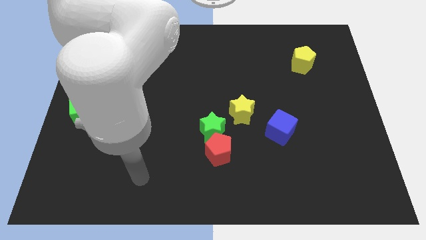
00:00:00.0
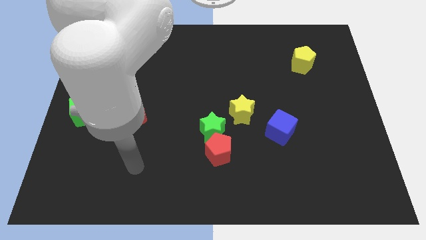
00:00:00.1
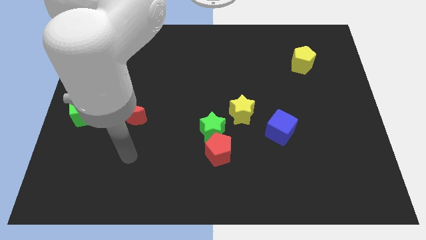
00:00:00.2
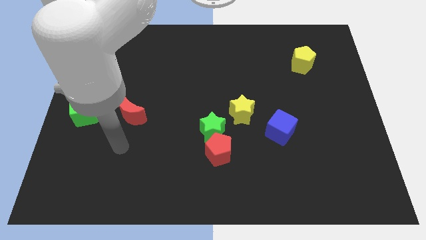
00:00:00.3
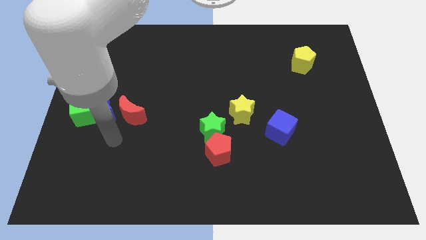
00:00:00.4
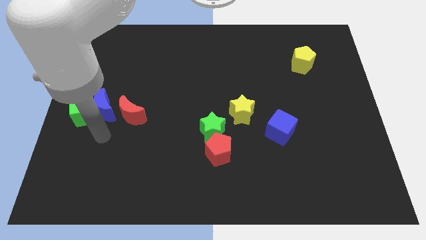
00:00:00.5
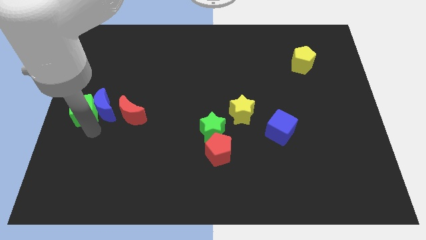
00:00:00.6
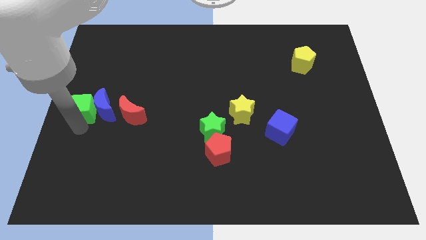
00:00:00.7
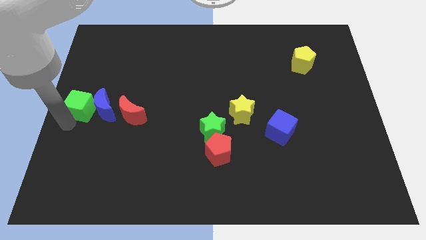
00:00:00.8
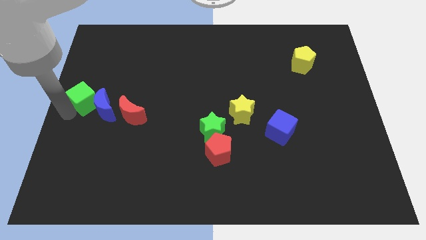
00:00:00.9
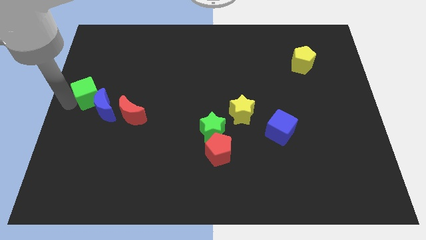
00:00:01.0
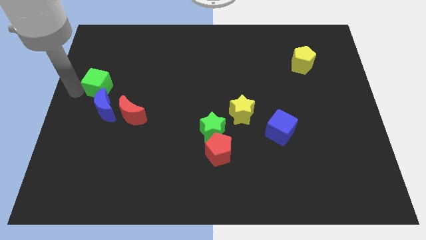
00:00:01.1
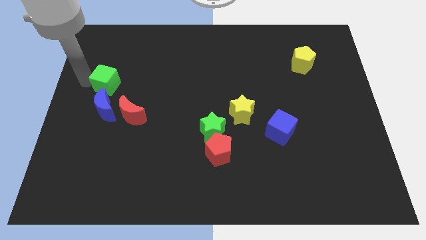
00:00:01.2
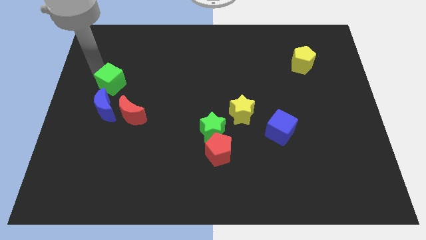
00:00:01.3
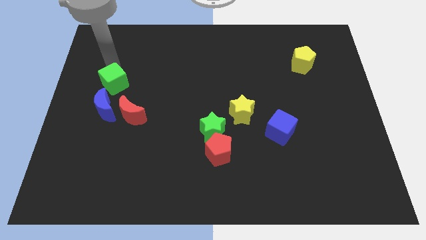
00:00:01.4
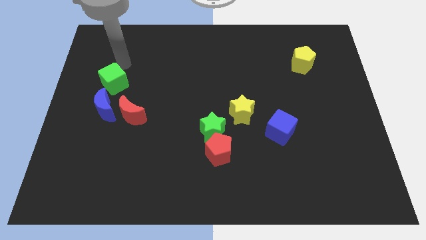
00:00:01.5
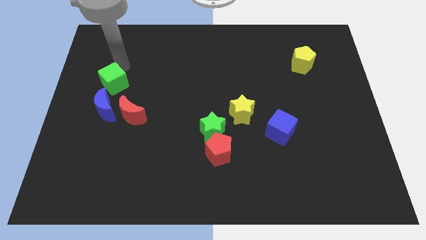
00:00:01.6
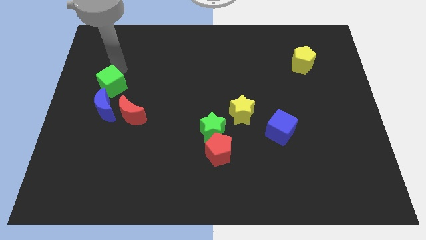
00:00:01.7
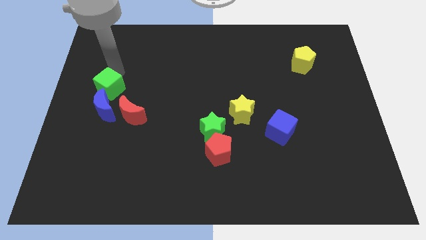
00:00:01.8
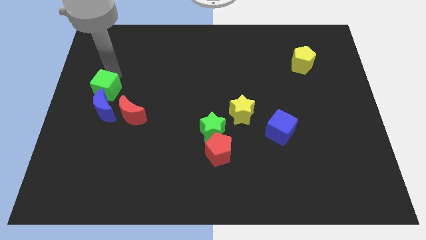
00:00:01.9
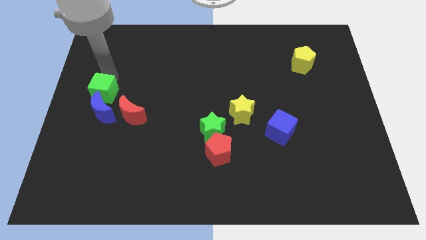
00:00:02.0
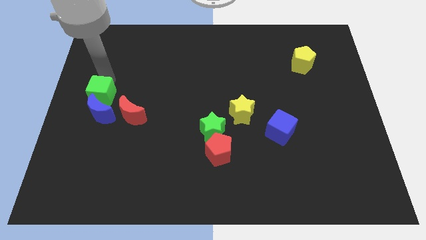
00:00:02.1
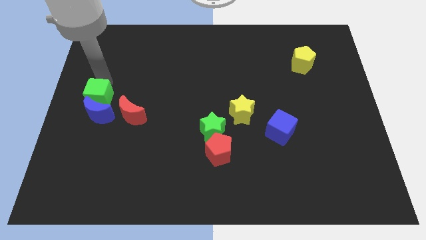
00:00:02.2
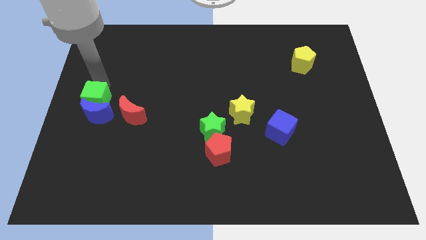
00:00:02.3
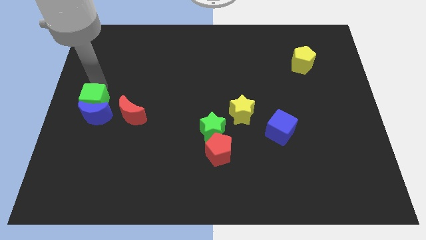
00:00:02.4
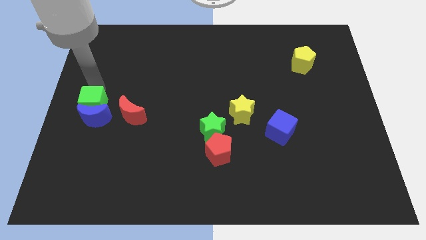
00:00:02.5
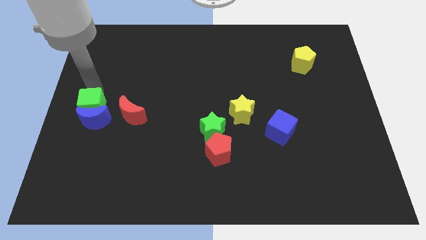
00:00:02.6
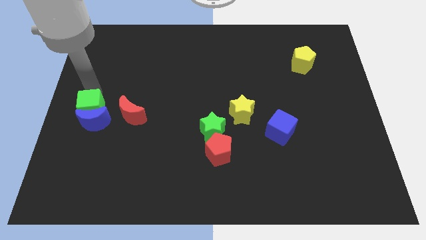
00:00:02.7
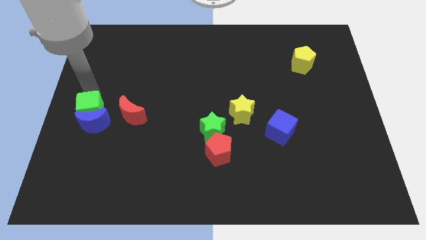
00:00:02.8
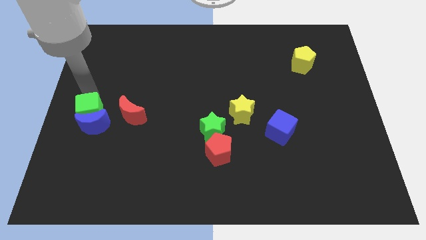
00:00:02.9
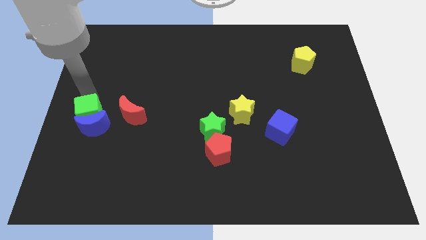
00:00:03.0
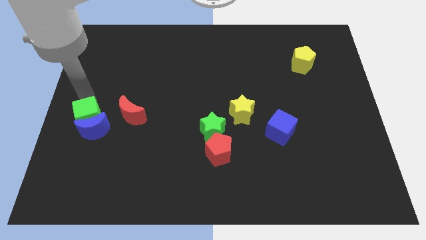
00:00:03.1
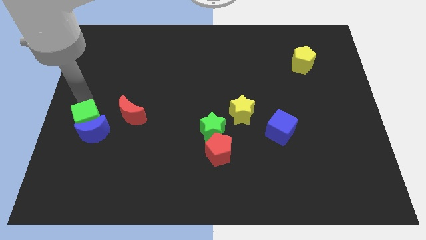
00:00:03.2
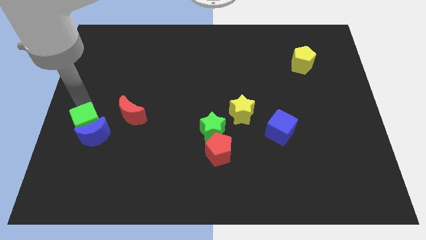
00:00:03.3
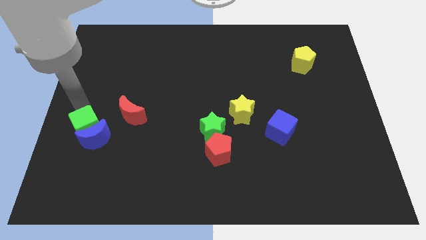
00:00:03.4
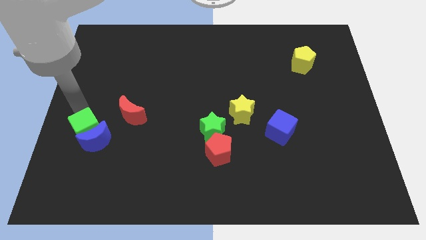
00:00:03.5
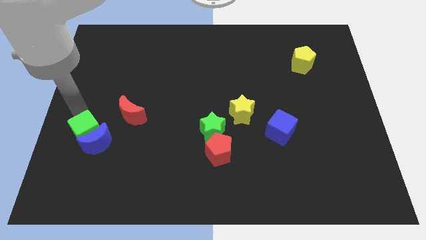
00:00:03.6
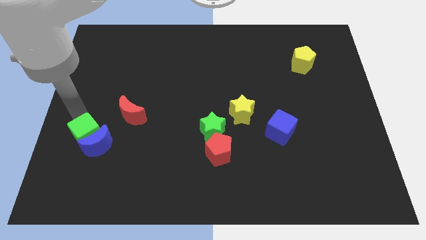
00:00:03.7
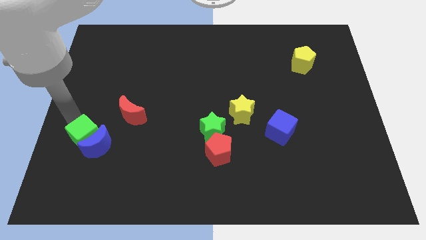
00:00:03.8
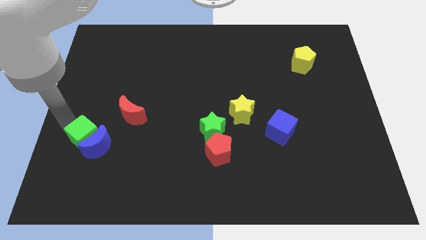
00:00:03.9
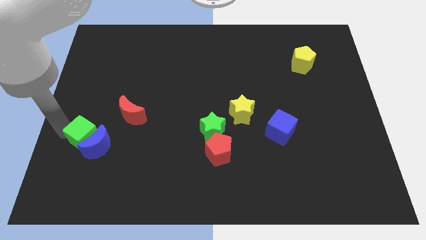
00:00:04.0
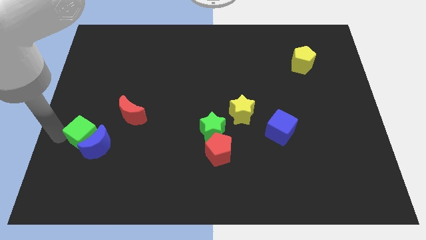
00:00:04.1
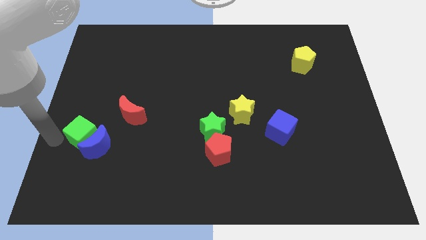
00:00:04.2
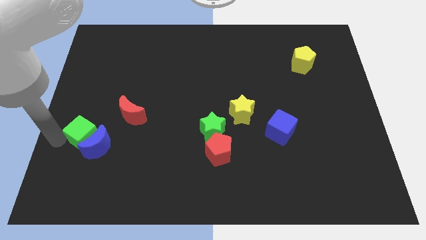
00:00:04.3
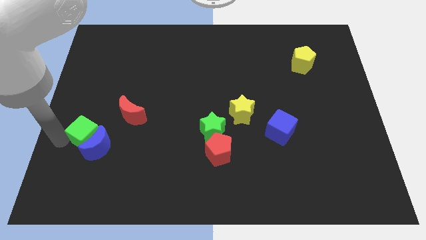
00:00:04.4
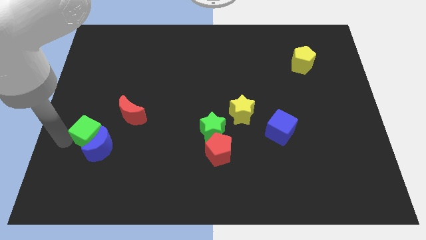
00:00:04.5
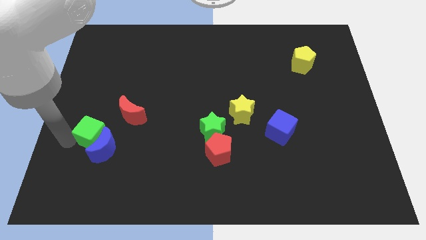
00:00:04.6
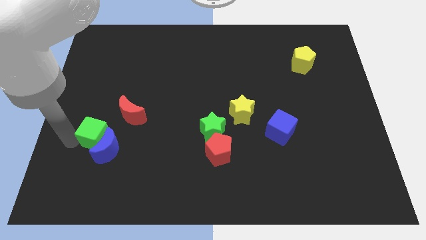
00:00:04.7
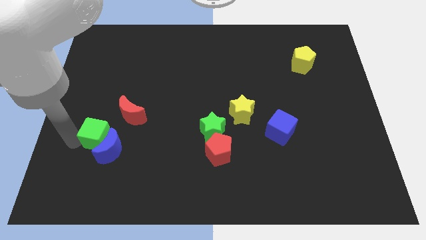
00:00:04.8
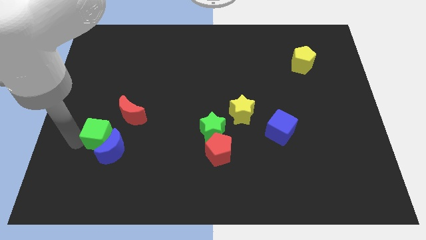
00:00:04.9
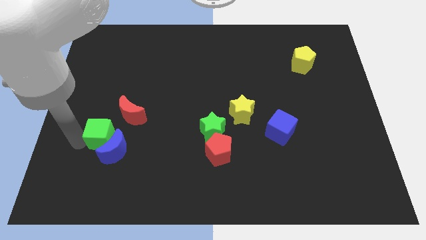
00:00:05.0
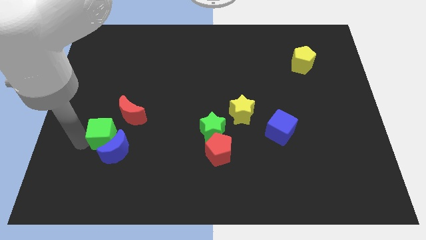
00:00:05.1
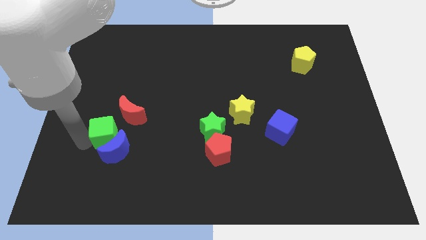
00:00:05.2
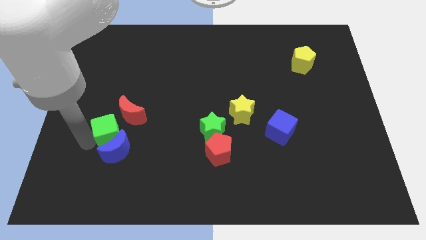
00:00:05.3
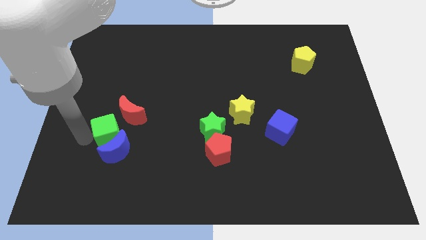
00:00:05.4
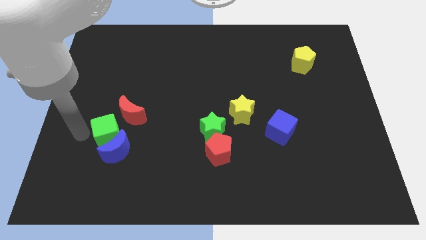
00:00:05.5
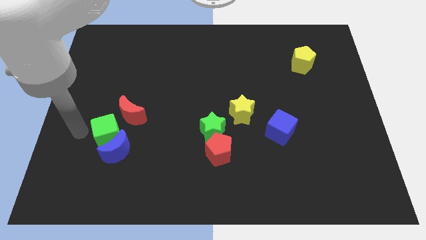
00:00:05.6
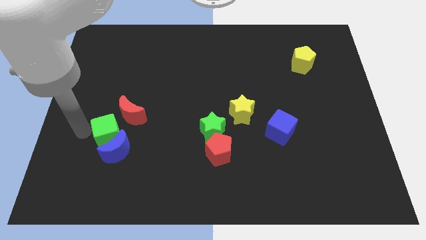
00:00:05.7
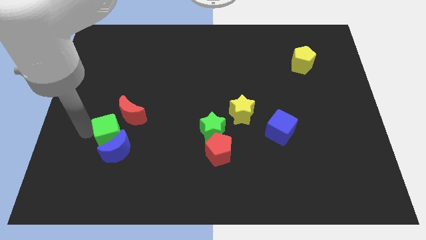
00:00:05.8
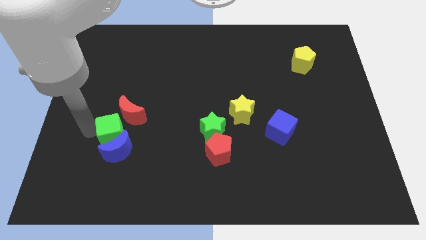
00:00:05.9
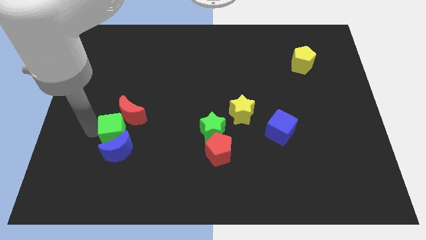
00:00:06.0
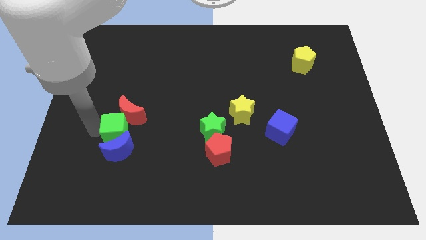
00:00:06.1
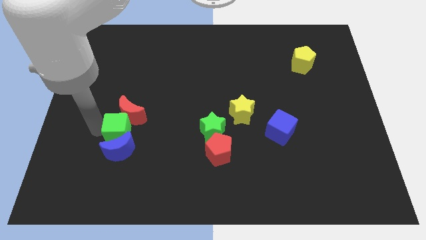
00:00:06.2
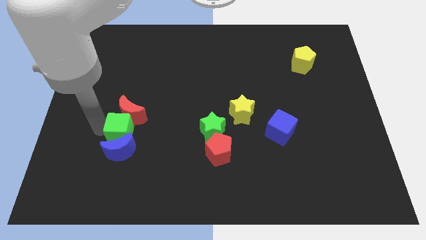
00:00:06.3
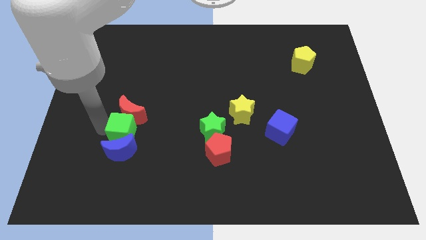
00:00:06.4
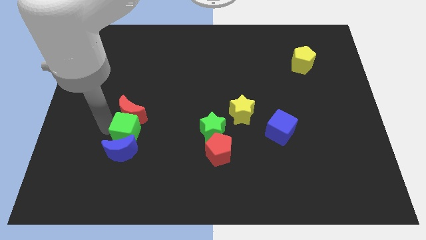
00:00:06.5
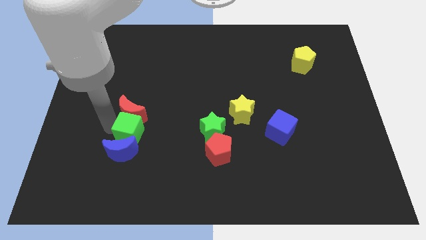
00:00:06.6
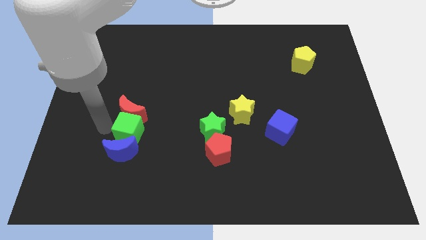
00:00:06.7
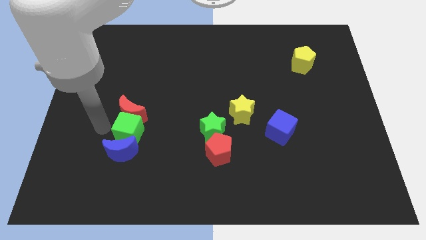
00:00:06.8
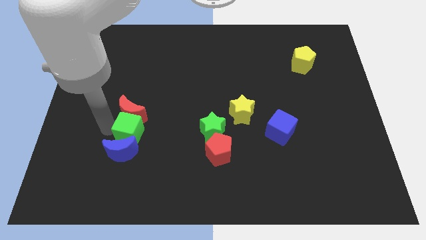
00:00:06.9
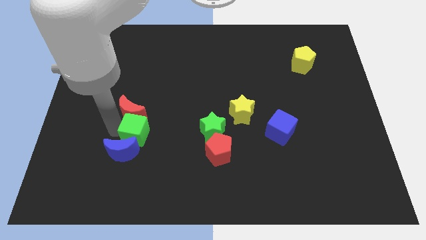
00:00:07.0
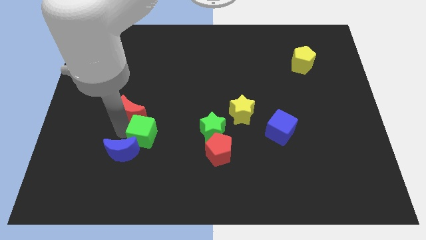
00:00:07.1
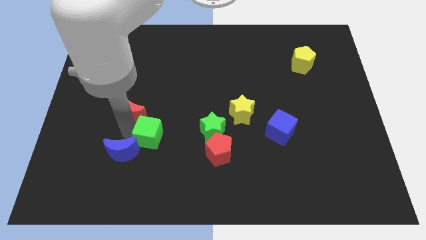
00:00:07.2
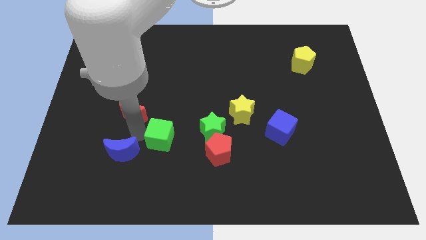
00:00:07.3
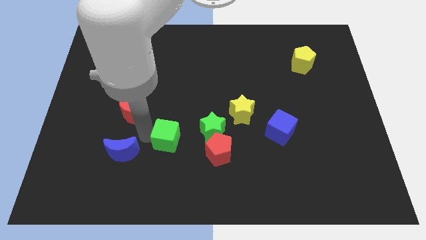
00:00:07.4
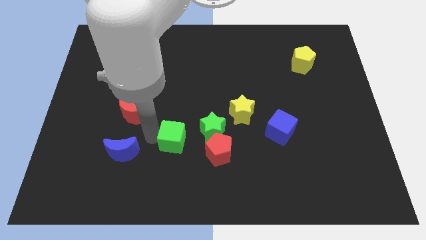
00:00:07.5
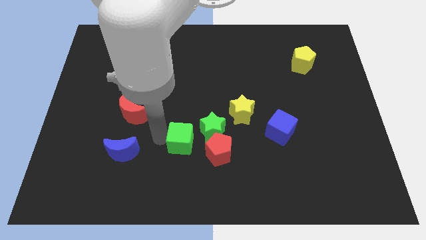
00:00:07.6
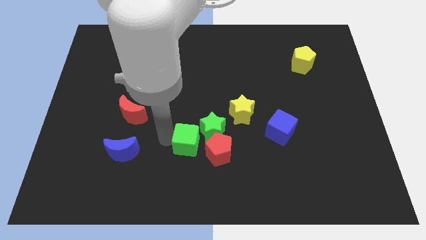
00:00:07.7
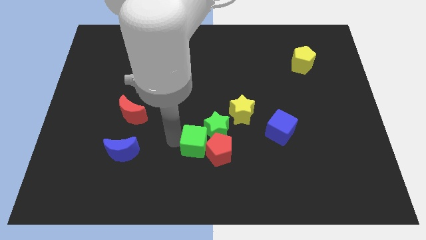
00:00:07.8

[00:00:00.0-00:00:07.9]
slide the green cube towards the red pentagon

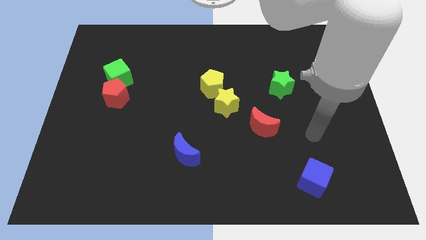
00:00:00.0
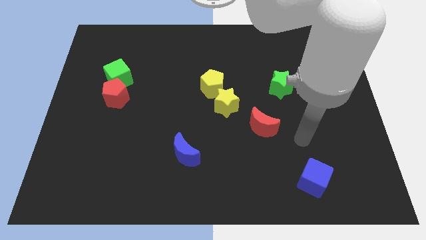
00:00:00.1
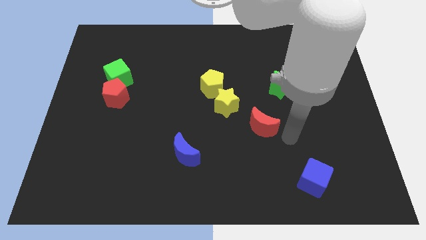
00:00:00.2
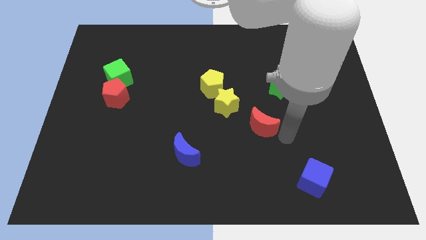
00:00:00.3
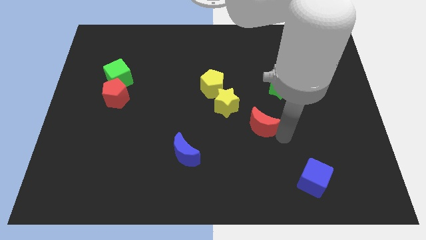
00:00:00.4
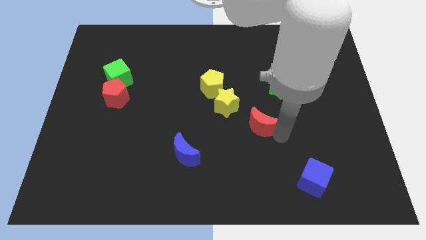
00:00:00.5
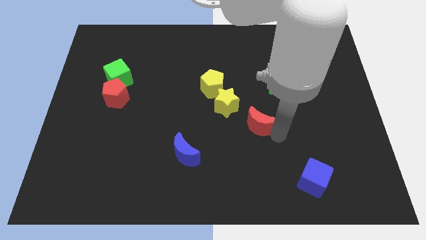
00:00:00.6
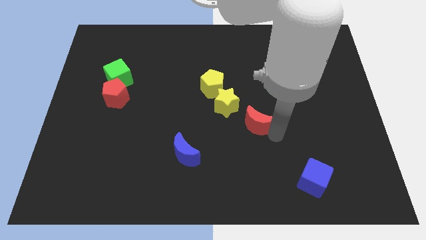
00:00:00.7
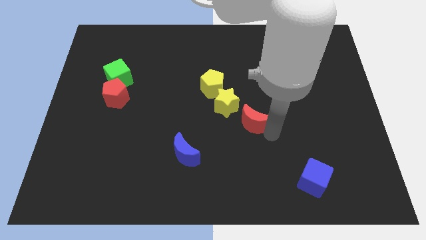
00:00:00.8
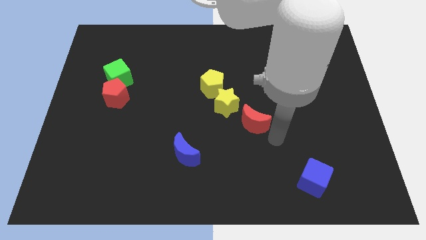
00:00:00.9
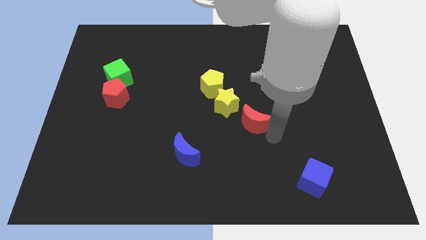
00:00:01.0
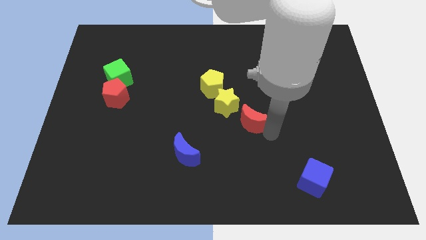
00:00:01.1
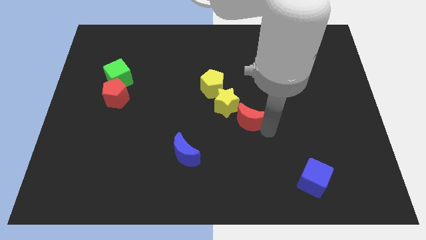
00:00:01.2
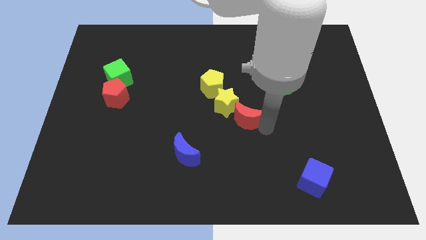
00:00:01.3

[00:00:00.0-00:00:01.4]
put the red moon next to the yellow star
